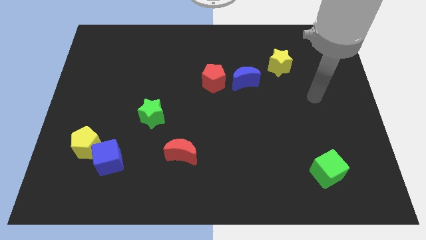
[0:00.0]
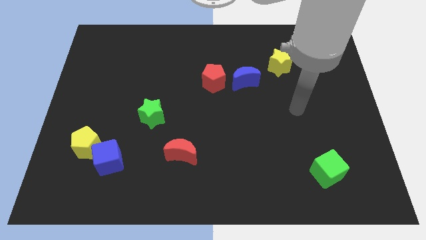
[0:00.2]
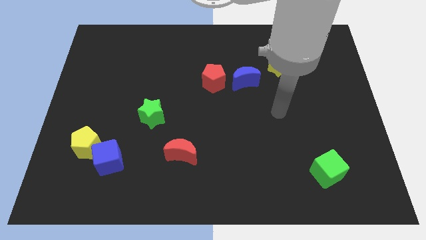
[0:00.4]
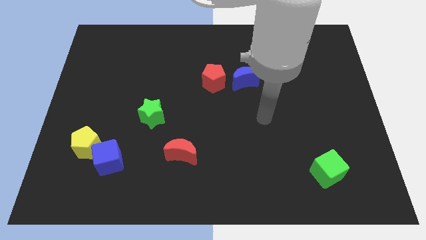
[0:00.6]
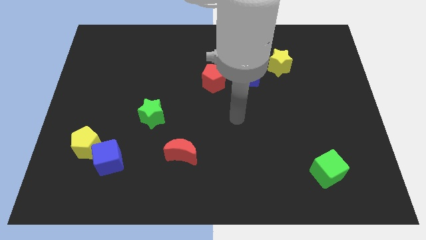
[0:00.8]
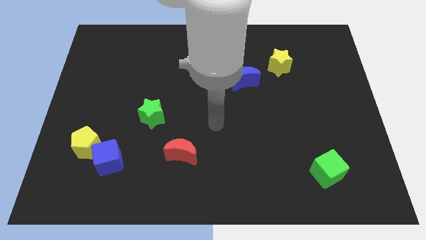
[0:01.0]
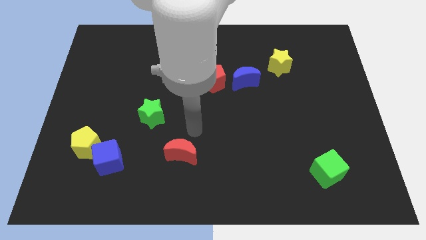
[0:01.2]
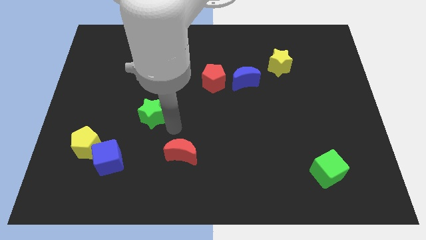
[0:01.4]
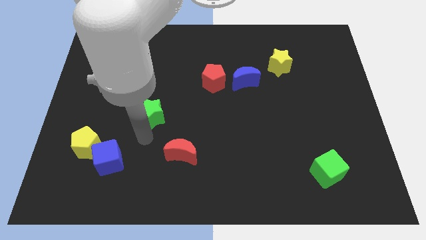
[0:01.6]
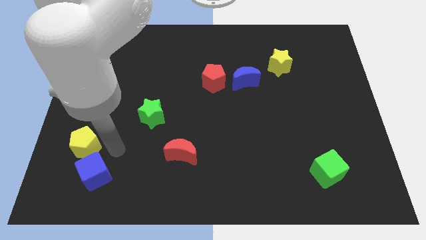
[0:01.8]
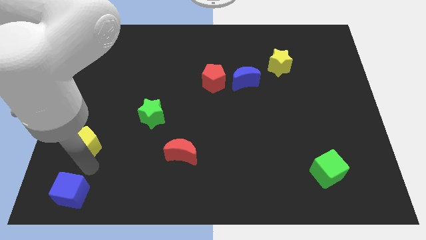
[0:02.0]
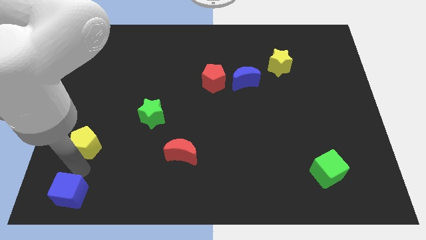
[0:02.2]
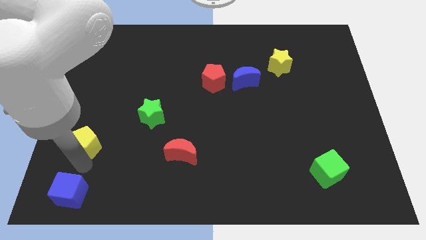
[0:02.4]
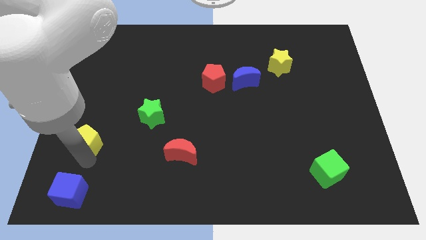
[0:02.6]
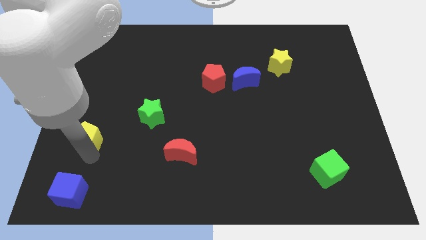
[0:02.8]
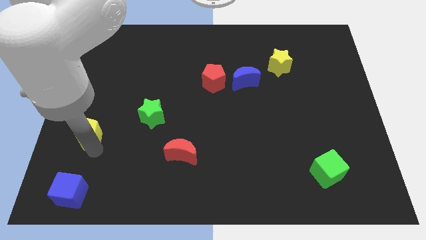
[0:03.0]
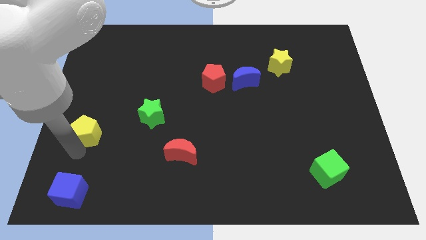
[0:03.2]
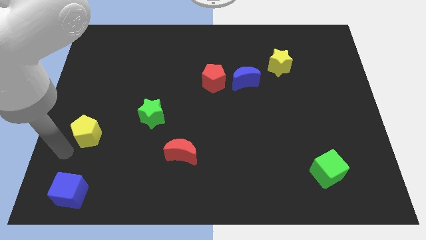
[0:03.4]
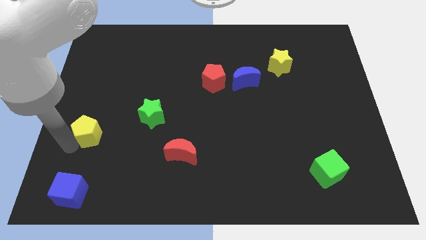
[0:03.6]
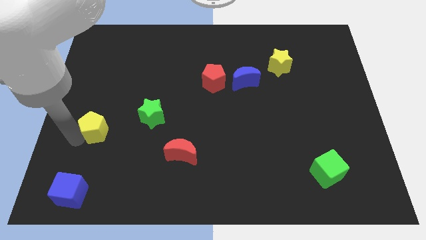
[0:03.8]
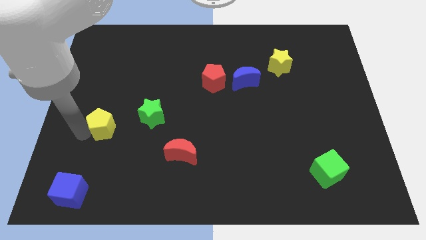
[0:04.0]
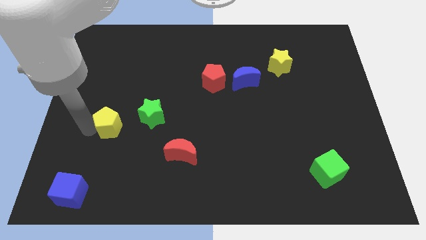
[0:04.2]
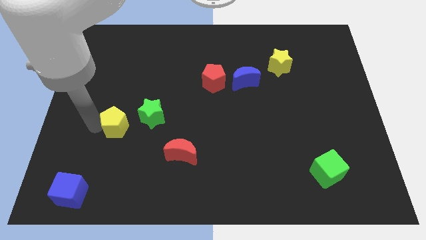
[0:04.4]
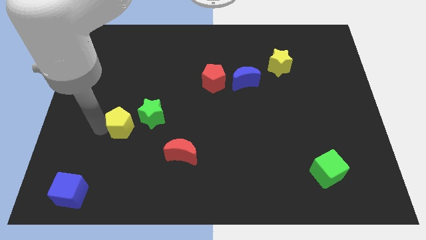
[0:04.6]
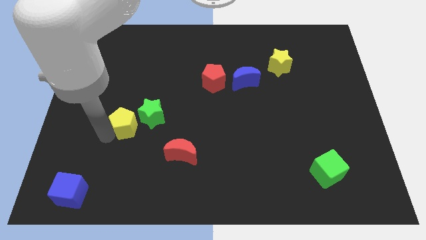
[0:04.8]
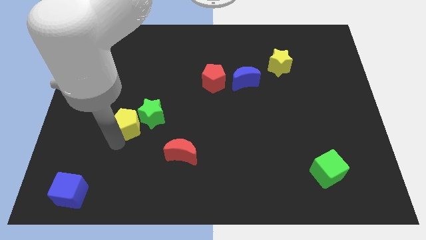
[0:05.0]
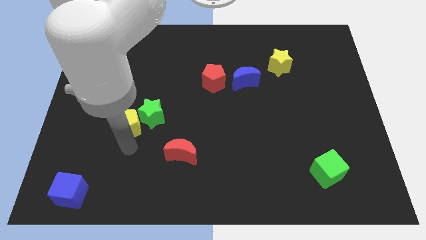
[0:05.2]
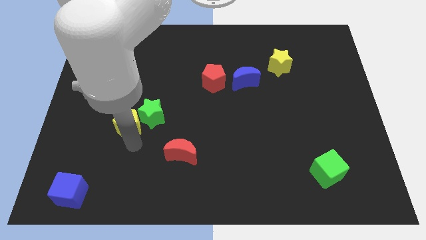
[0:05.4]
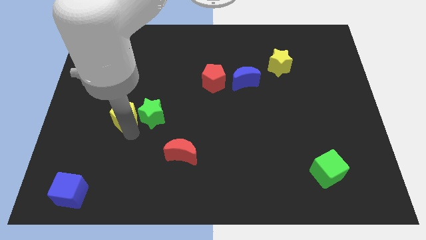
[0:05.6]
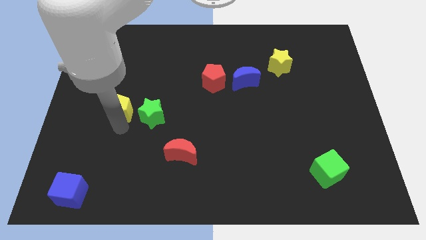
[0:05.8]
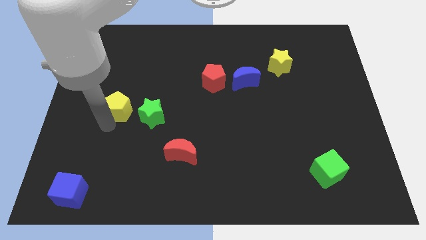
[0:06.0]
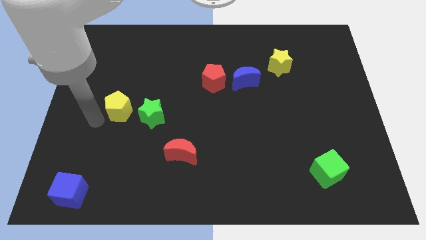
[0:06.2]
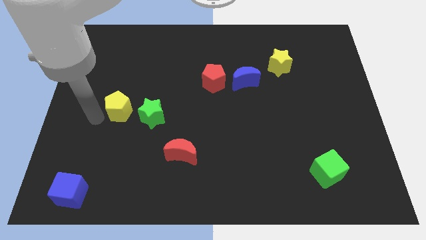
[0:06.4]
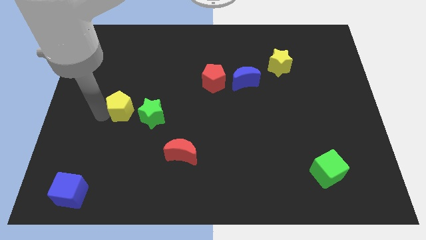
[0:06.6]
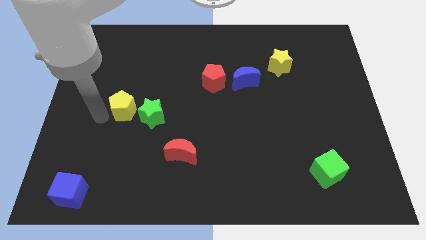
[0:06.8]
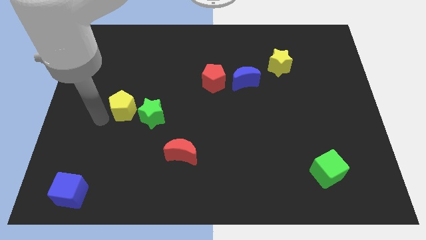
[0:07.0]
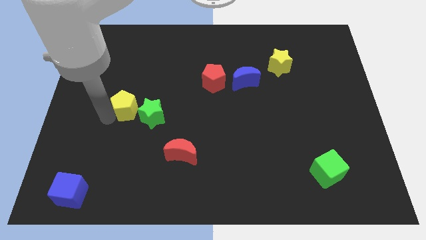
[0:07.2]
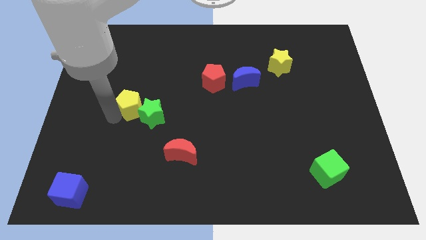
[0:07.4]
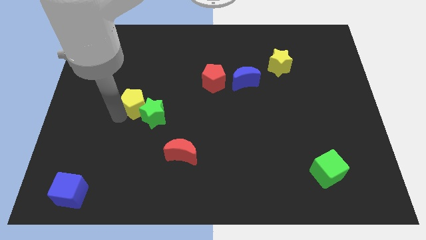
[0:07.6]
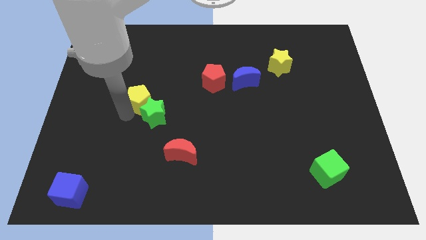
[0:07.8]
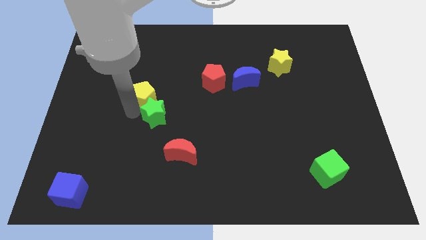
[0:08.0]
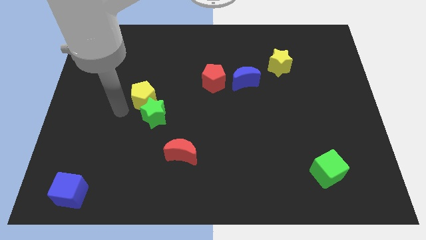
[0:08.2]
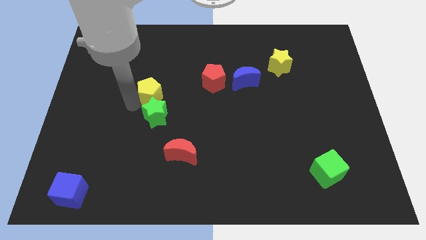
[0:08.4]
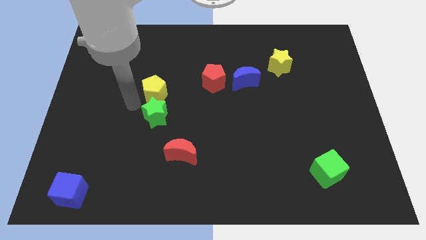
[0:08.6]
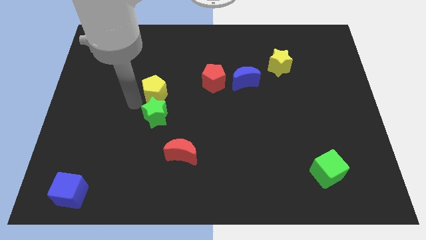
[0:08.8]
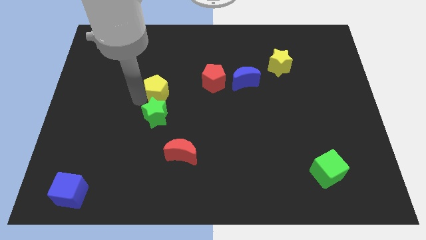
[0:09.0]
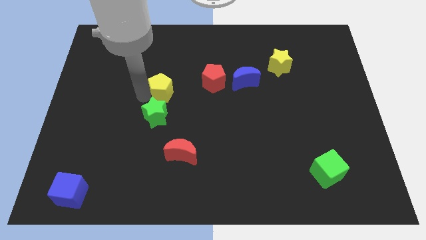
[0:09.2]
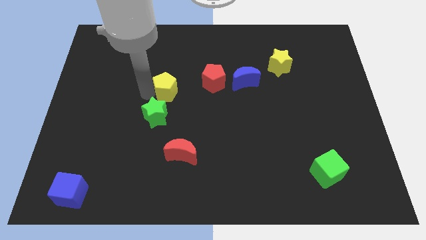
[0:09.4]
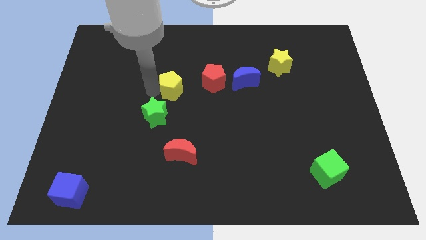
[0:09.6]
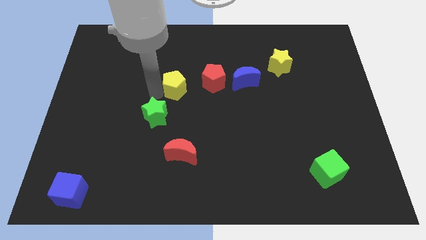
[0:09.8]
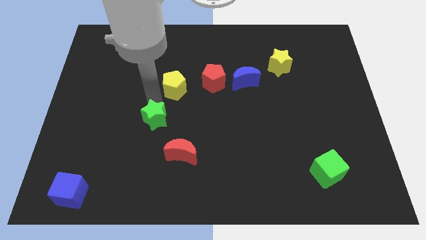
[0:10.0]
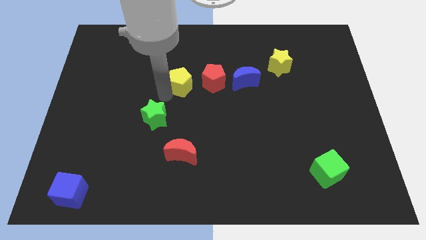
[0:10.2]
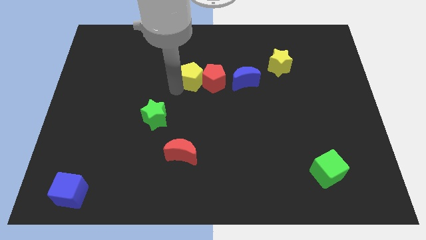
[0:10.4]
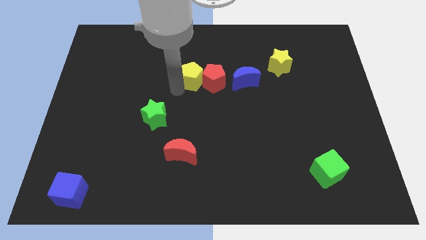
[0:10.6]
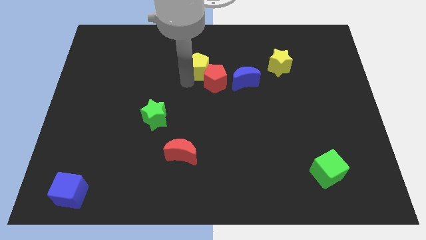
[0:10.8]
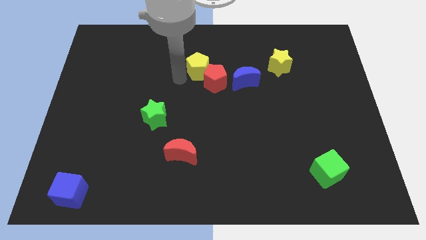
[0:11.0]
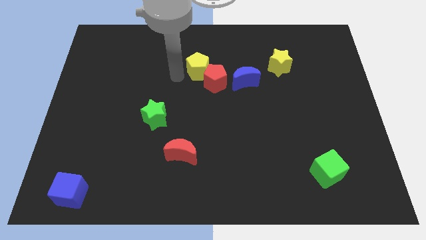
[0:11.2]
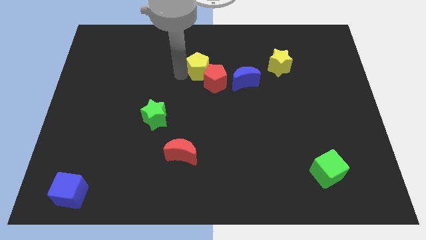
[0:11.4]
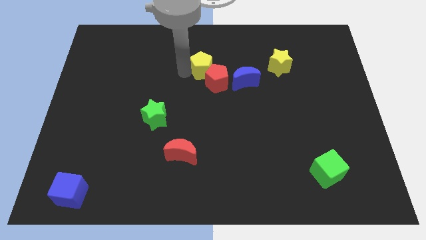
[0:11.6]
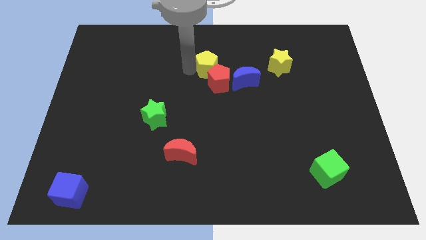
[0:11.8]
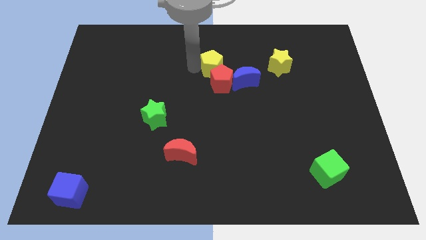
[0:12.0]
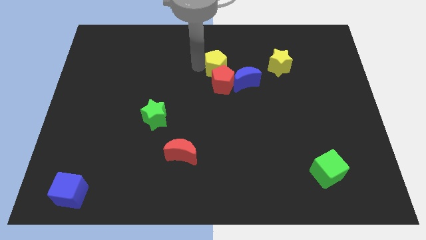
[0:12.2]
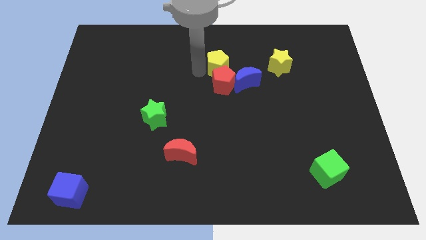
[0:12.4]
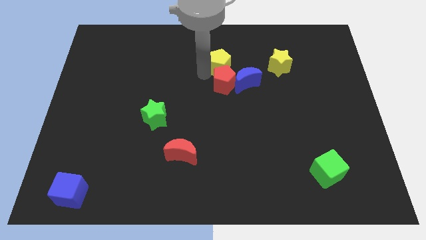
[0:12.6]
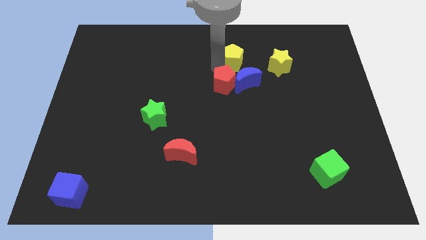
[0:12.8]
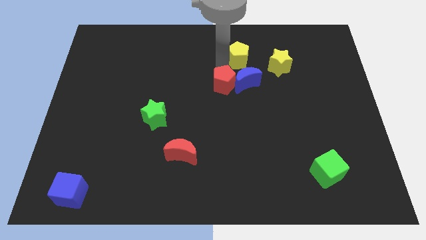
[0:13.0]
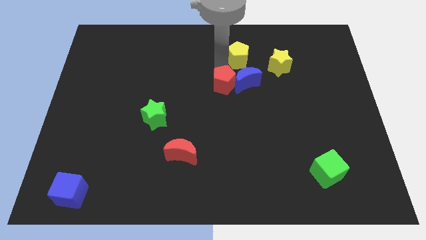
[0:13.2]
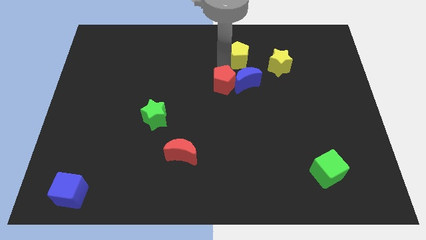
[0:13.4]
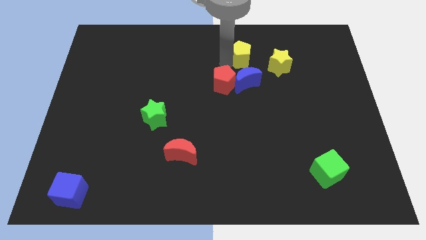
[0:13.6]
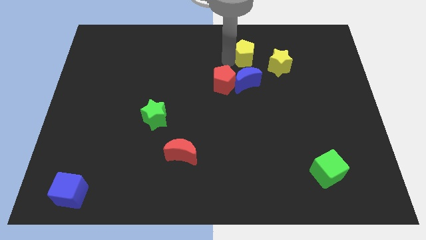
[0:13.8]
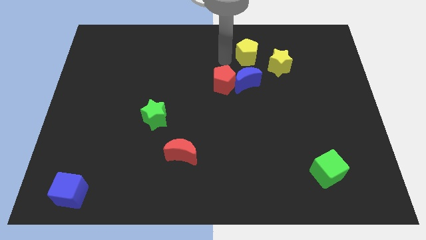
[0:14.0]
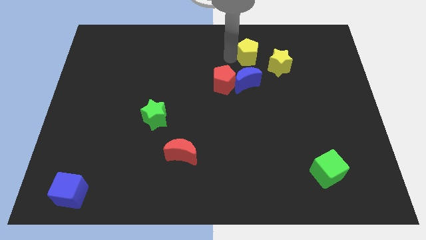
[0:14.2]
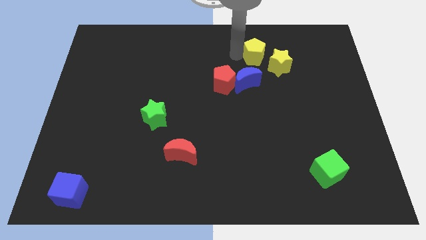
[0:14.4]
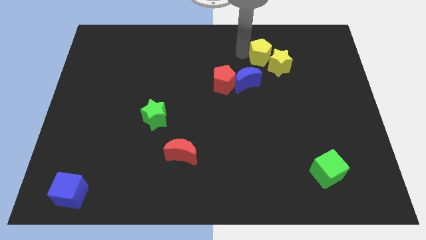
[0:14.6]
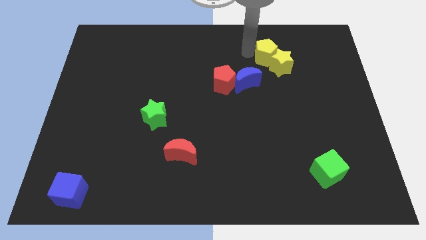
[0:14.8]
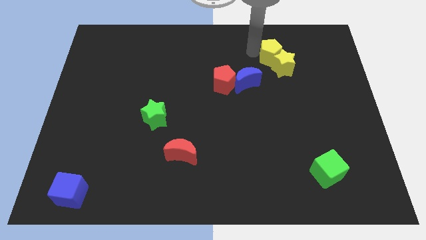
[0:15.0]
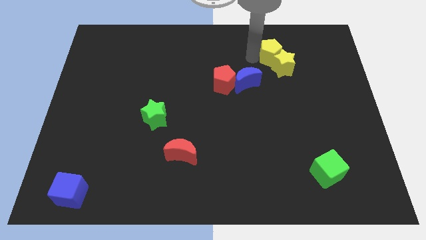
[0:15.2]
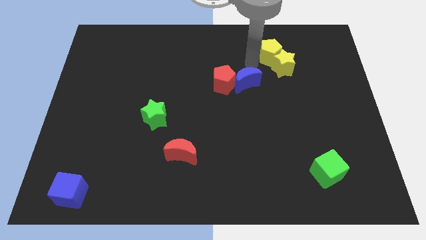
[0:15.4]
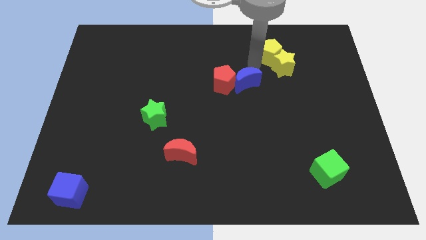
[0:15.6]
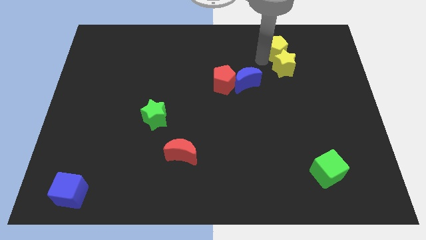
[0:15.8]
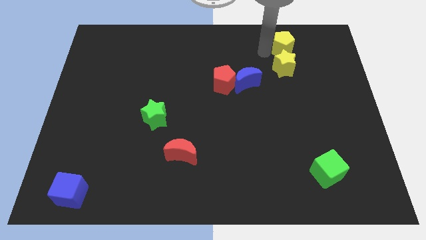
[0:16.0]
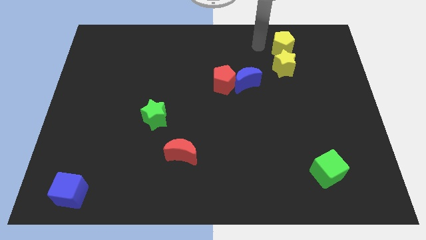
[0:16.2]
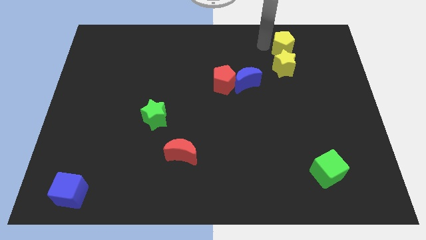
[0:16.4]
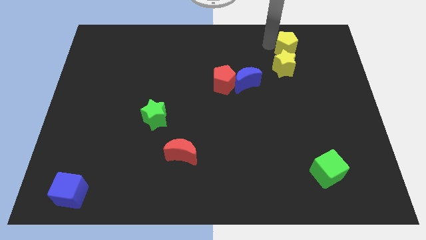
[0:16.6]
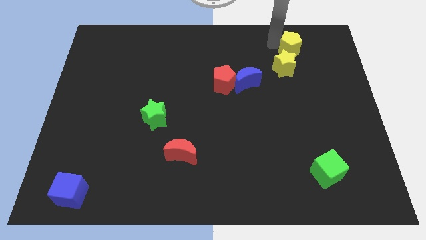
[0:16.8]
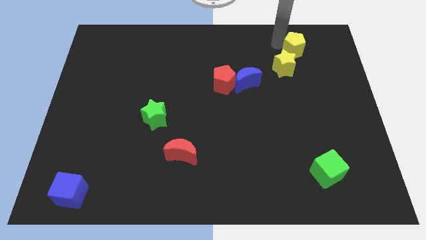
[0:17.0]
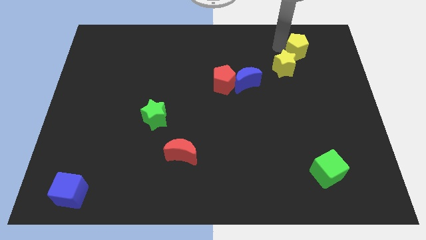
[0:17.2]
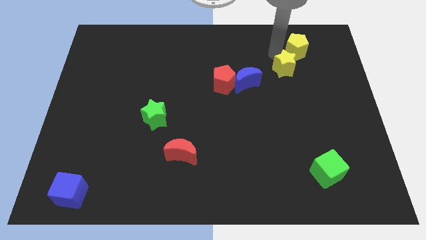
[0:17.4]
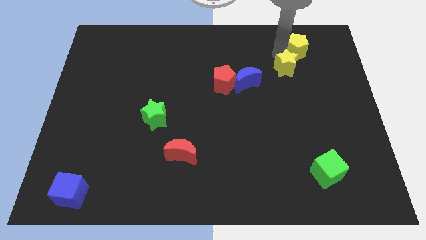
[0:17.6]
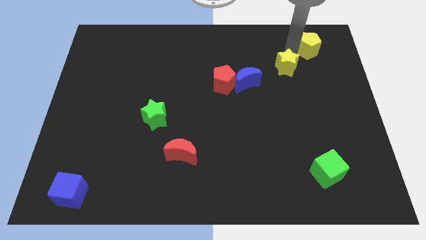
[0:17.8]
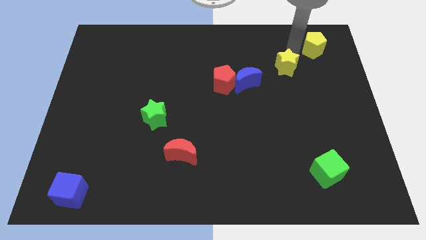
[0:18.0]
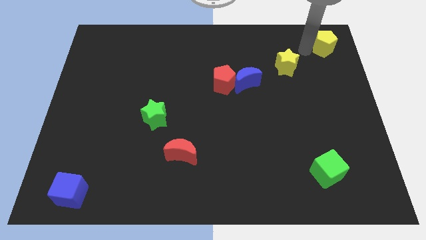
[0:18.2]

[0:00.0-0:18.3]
put the yellow pentagon to the top right
